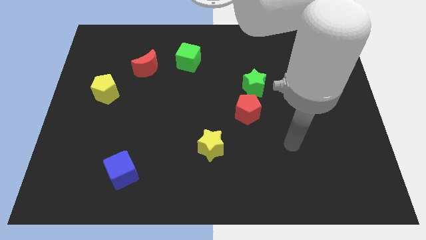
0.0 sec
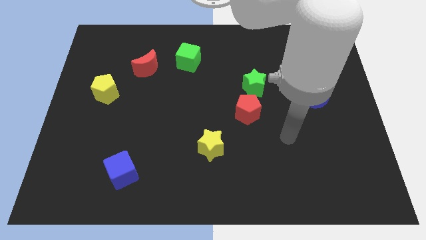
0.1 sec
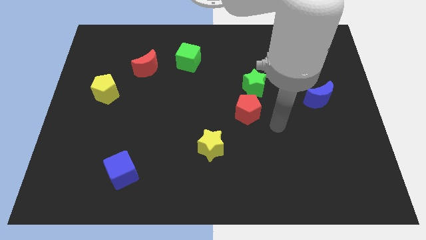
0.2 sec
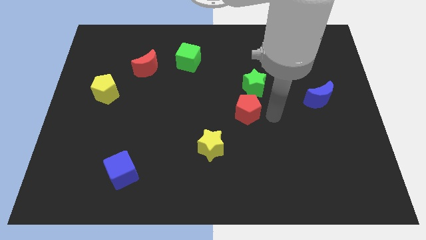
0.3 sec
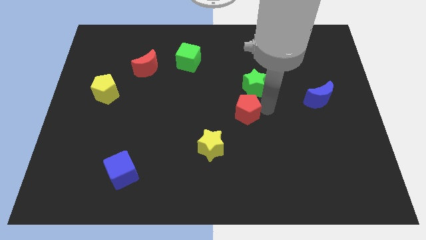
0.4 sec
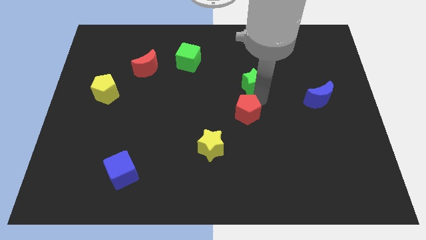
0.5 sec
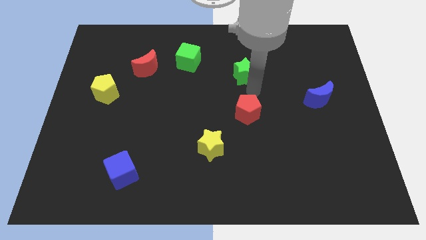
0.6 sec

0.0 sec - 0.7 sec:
separate the red pentagon from the green star

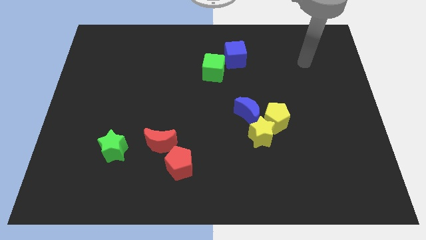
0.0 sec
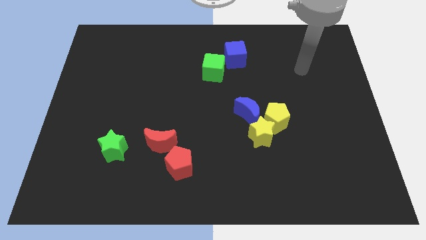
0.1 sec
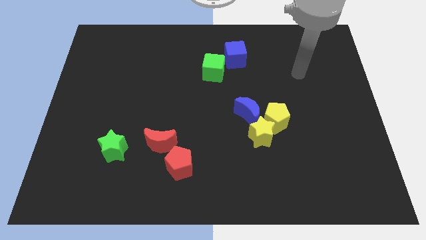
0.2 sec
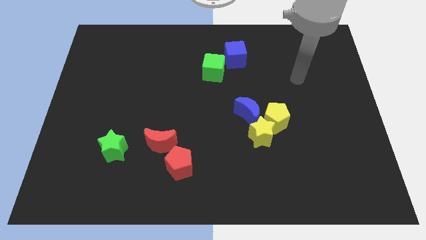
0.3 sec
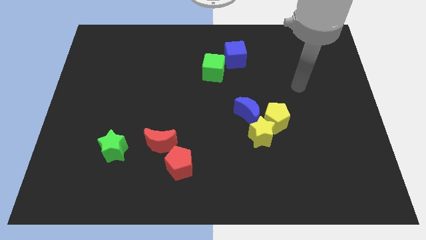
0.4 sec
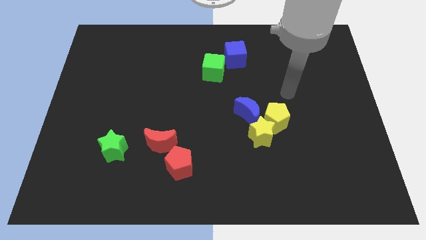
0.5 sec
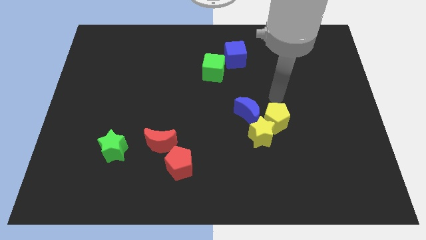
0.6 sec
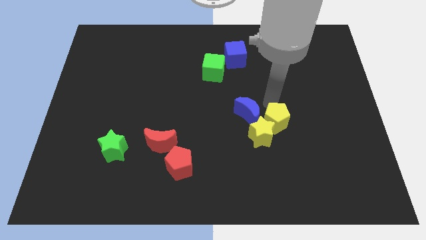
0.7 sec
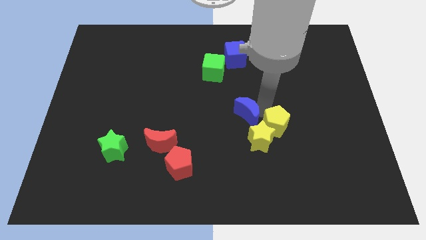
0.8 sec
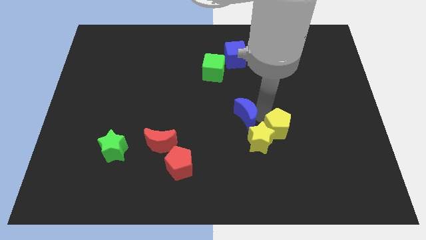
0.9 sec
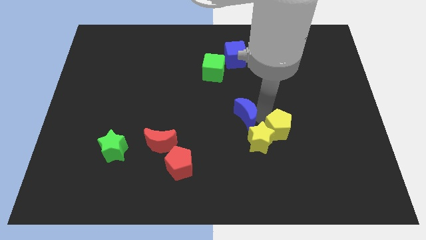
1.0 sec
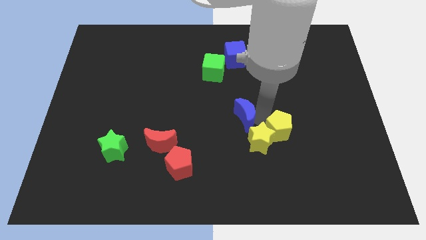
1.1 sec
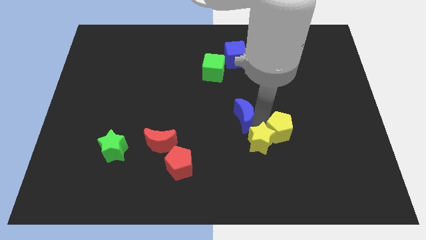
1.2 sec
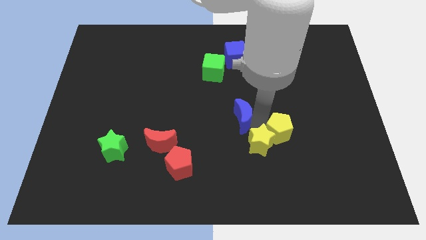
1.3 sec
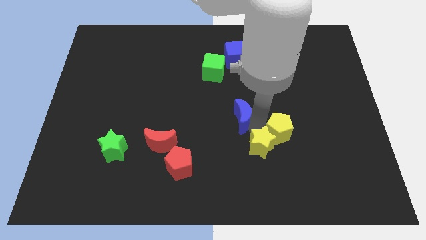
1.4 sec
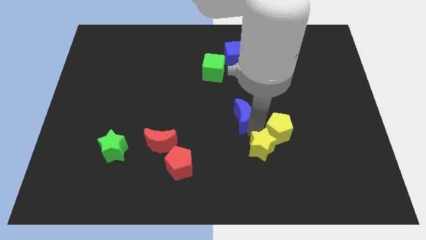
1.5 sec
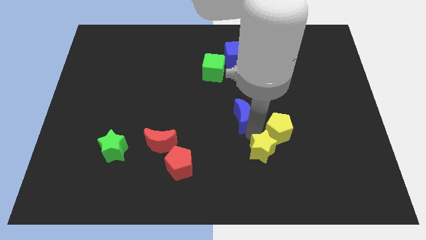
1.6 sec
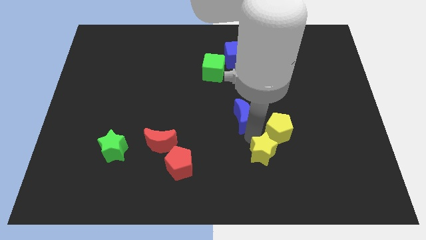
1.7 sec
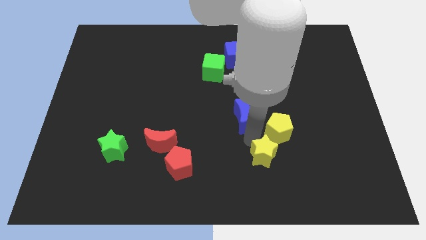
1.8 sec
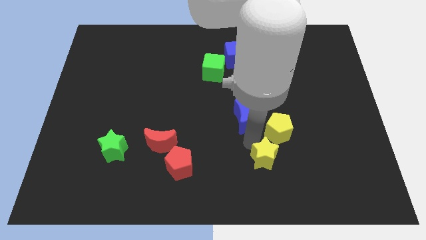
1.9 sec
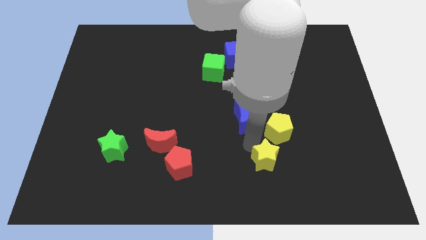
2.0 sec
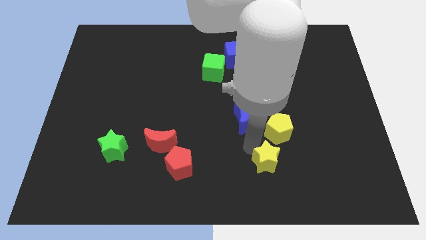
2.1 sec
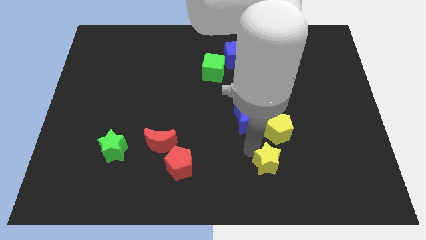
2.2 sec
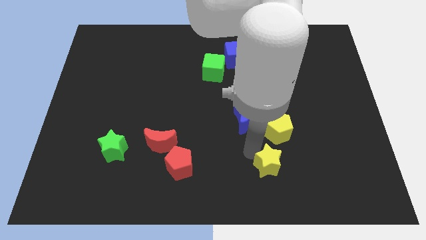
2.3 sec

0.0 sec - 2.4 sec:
move the yellow star away from the yellow pentagon and blue moon

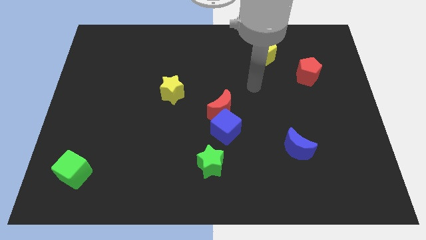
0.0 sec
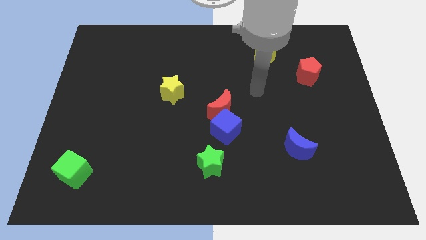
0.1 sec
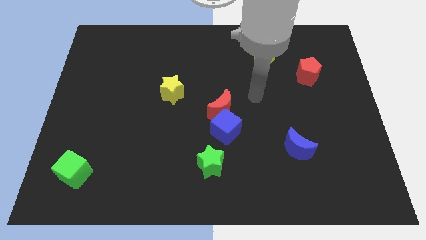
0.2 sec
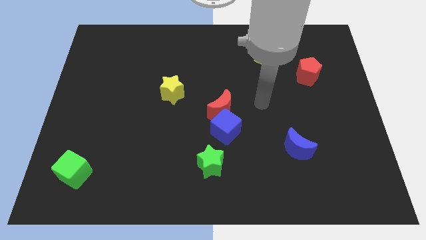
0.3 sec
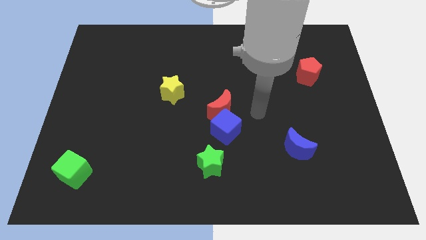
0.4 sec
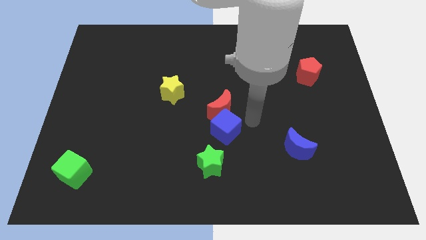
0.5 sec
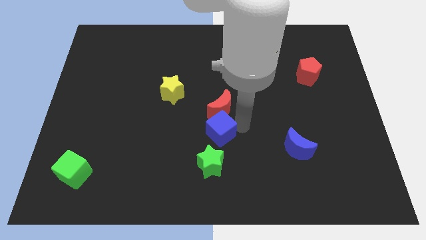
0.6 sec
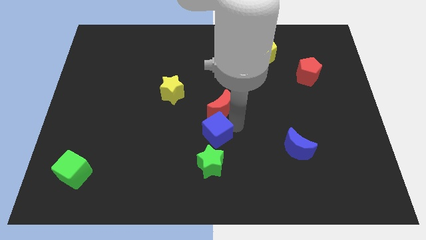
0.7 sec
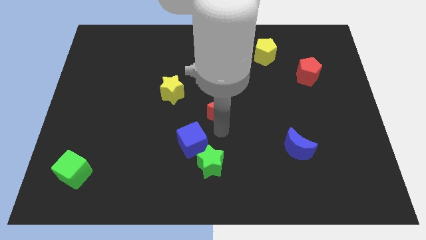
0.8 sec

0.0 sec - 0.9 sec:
separate the red moon from the blue cube

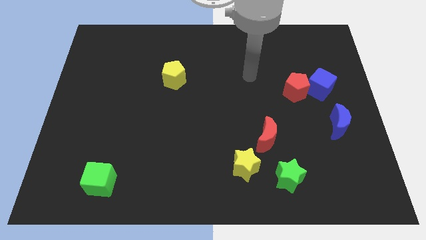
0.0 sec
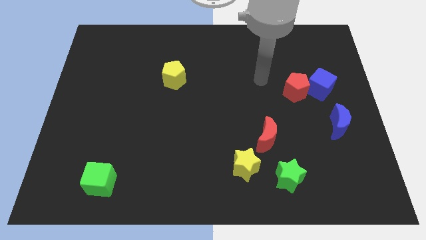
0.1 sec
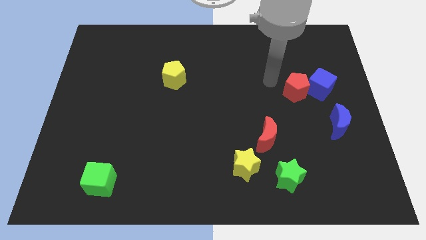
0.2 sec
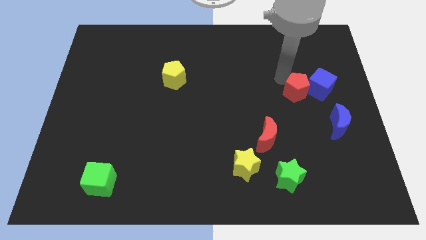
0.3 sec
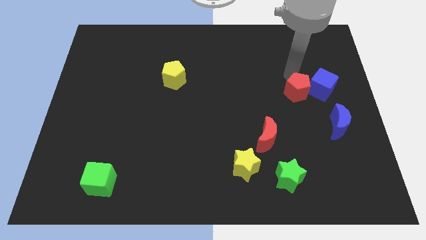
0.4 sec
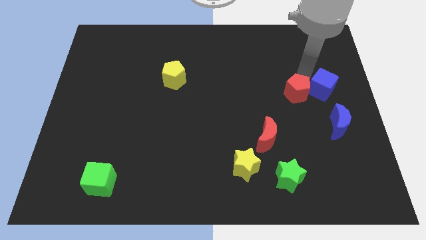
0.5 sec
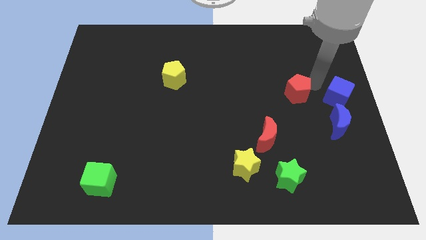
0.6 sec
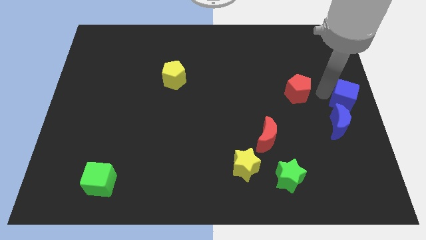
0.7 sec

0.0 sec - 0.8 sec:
separate the red pentagon from the blue cube

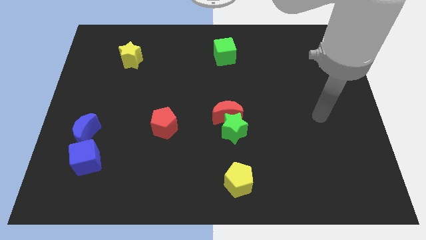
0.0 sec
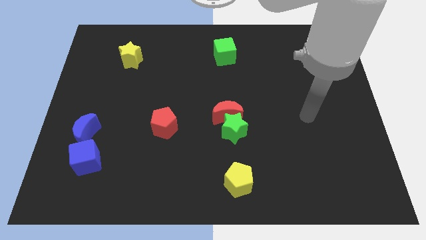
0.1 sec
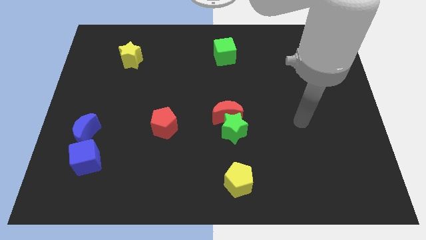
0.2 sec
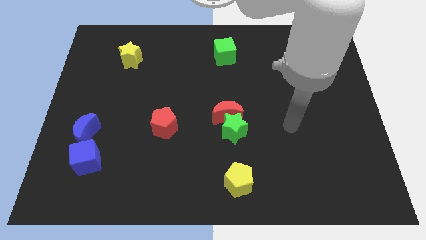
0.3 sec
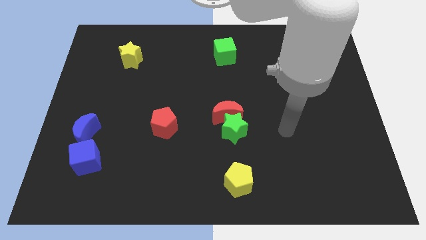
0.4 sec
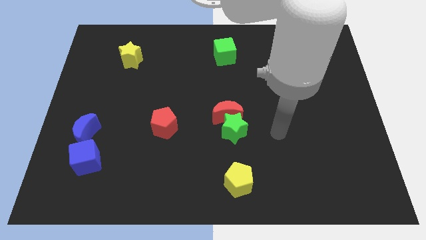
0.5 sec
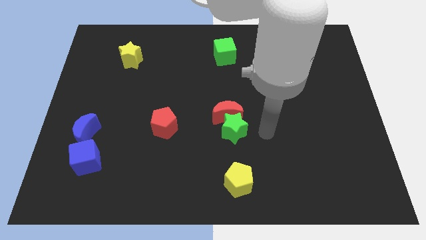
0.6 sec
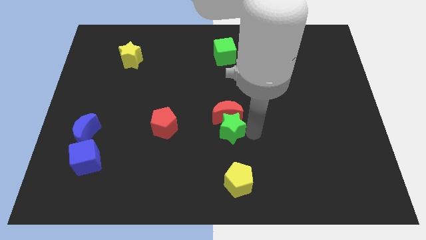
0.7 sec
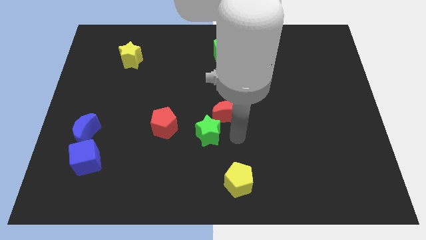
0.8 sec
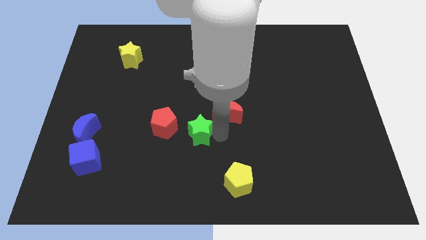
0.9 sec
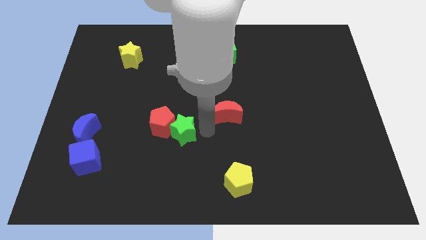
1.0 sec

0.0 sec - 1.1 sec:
move the red moon away from the green star

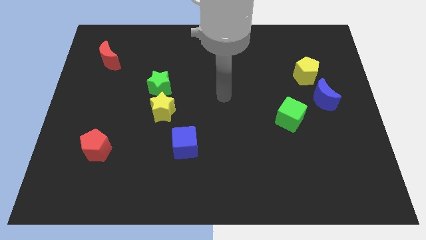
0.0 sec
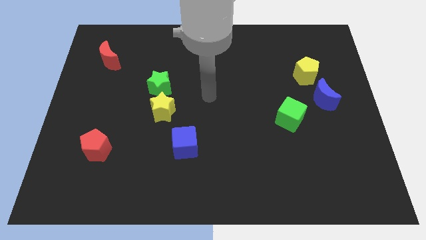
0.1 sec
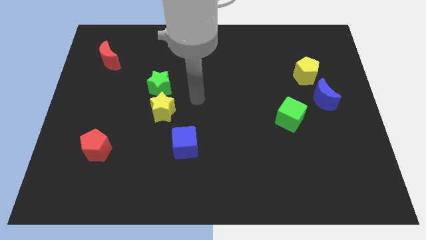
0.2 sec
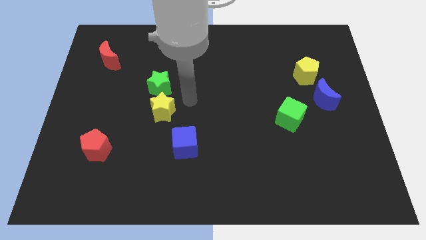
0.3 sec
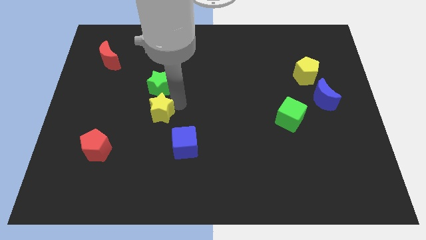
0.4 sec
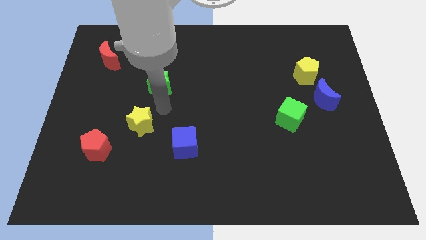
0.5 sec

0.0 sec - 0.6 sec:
separate the green star from the yellow star

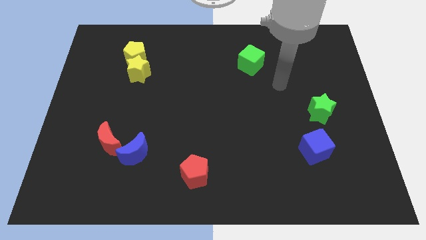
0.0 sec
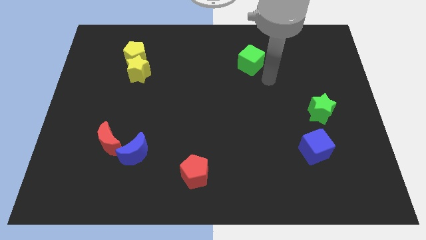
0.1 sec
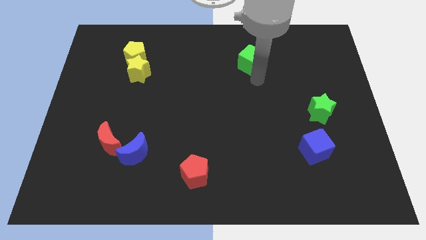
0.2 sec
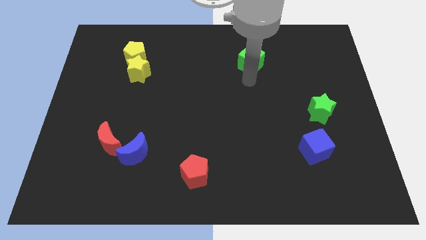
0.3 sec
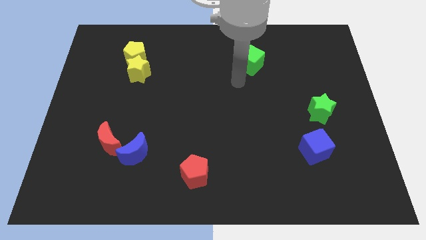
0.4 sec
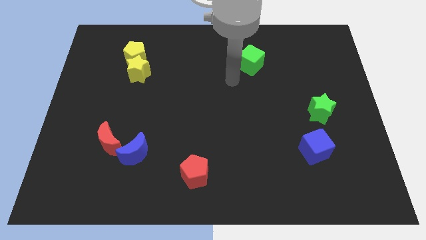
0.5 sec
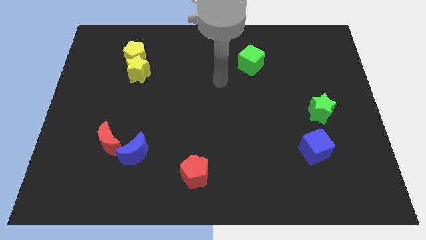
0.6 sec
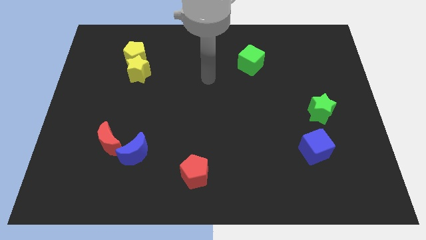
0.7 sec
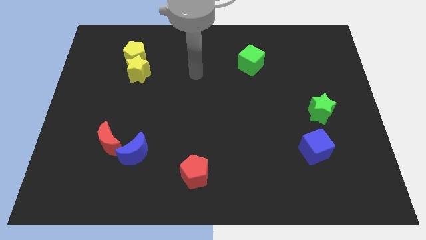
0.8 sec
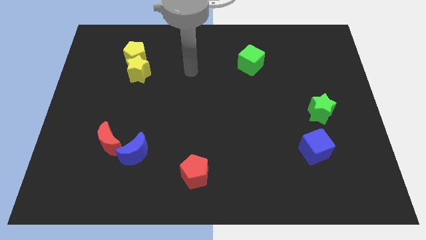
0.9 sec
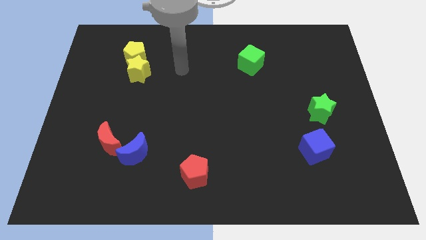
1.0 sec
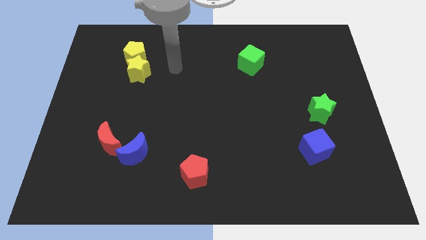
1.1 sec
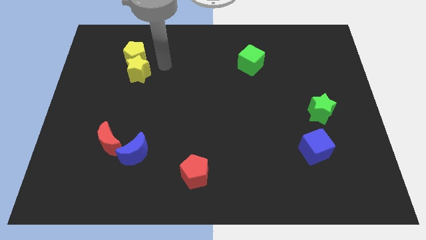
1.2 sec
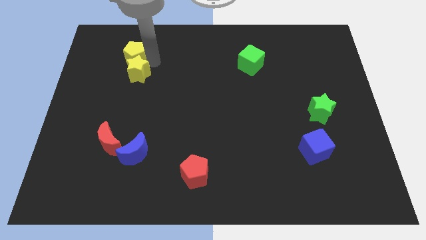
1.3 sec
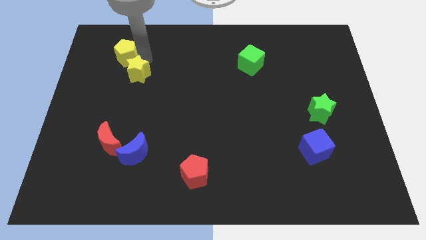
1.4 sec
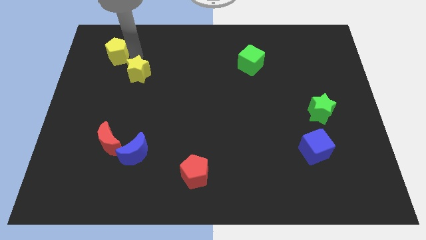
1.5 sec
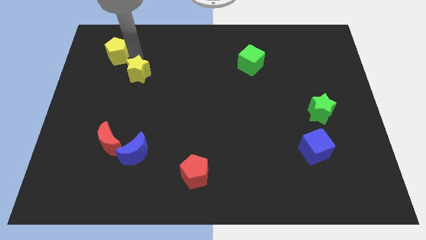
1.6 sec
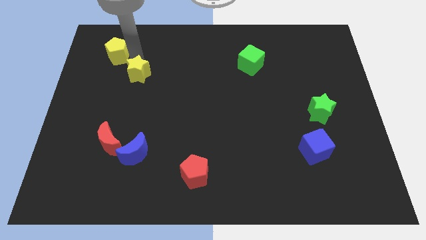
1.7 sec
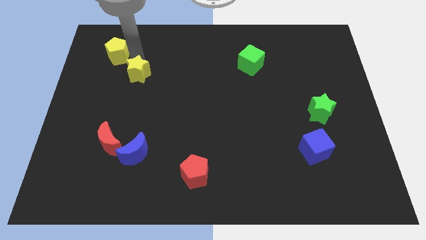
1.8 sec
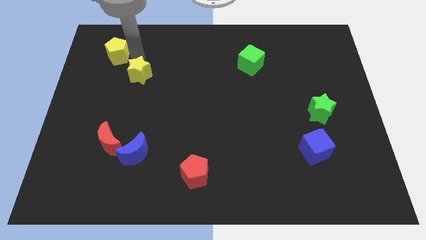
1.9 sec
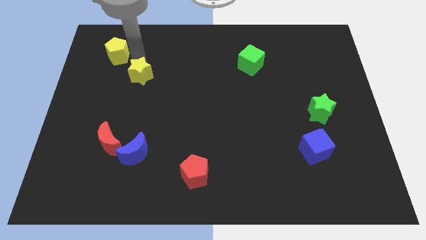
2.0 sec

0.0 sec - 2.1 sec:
pull the yellow star apart from the yellow pentagon

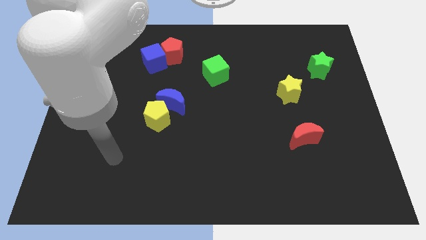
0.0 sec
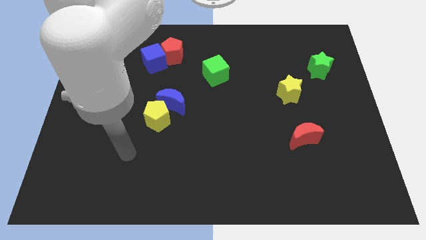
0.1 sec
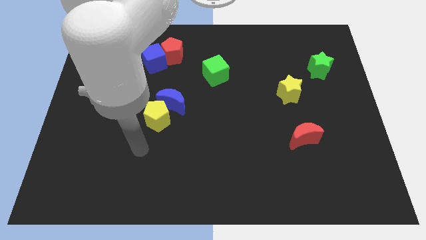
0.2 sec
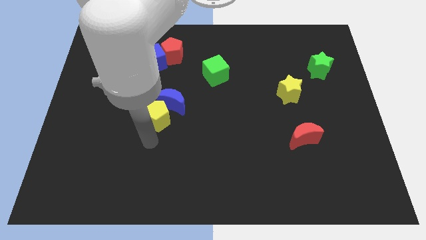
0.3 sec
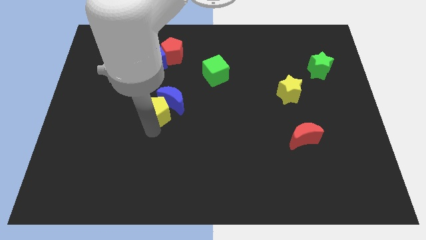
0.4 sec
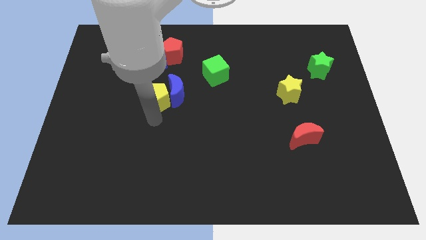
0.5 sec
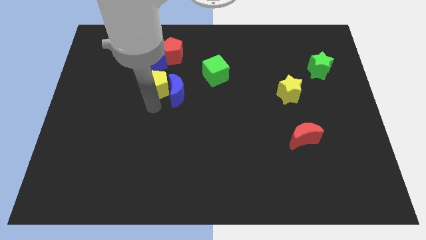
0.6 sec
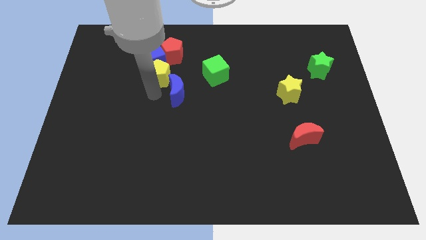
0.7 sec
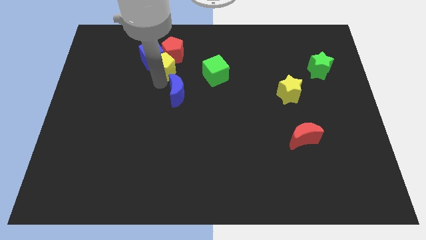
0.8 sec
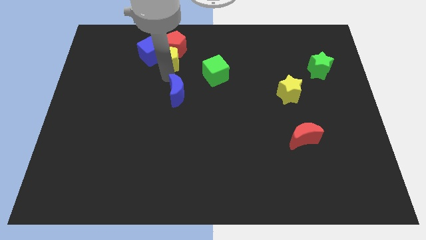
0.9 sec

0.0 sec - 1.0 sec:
pull the blue moon apart from the yellow pentagon
